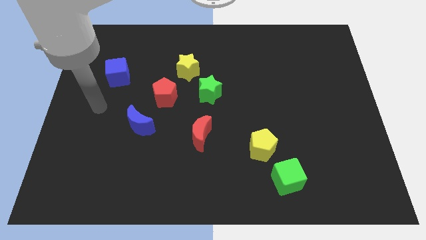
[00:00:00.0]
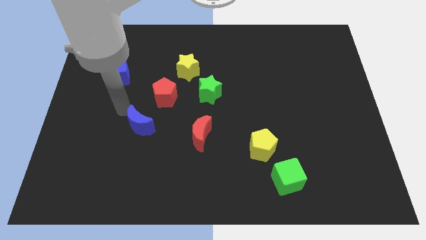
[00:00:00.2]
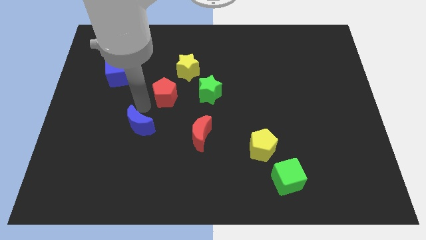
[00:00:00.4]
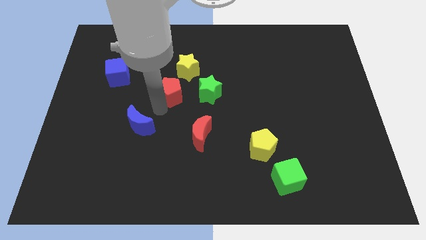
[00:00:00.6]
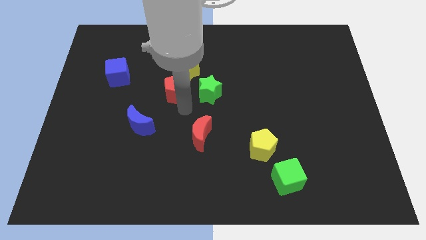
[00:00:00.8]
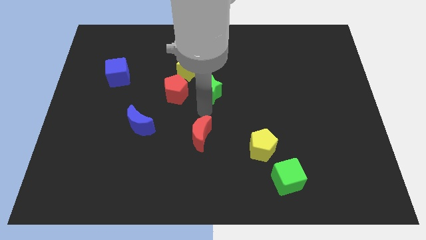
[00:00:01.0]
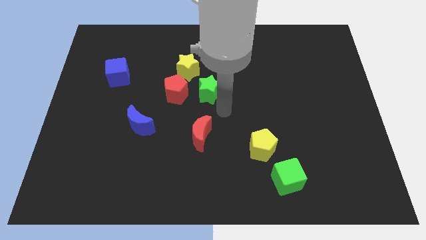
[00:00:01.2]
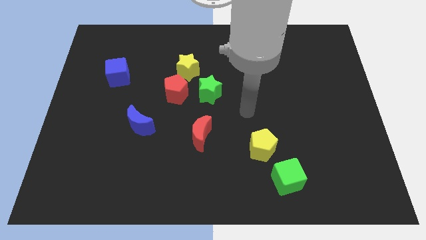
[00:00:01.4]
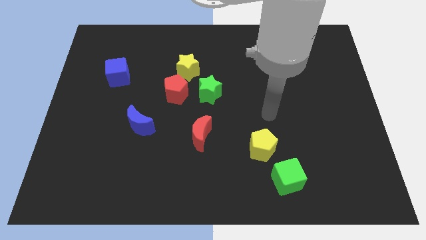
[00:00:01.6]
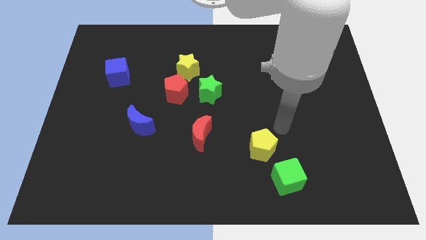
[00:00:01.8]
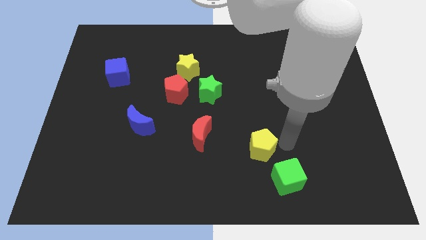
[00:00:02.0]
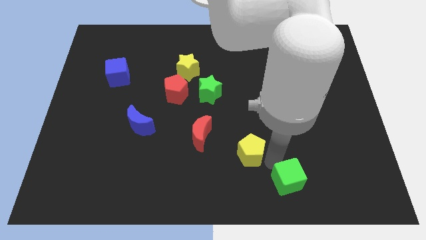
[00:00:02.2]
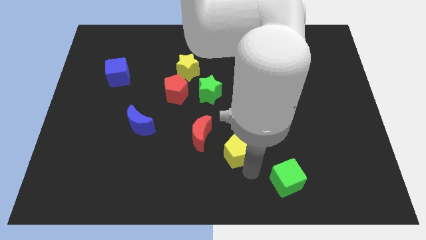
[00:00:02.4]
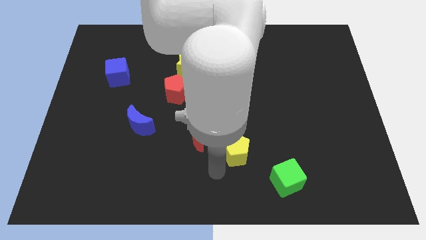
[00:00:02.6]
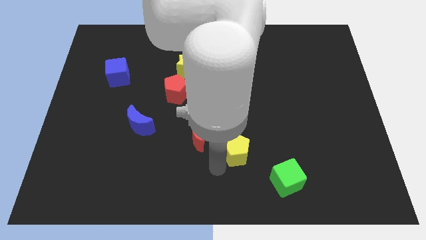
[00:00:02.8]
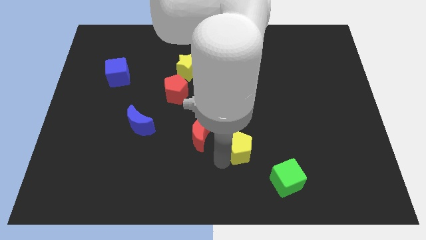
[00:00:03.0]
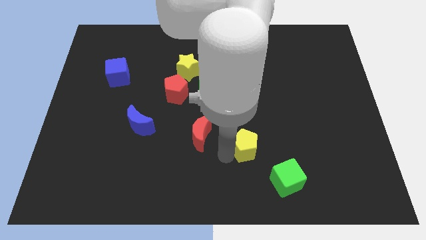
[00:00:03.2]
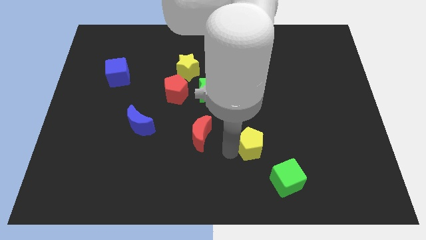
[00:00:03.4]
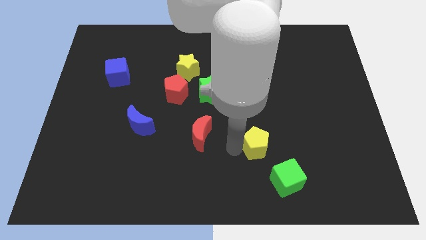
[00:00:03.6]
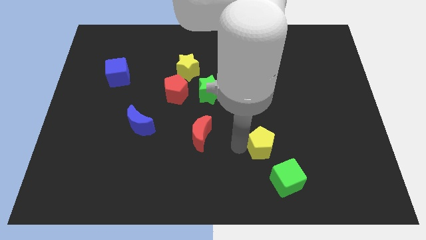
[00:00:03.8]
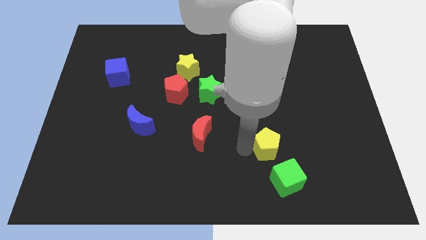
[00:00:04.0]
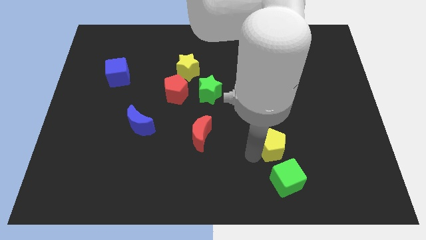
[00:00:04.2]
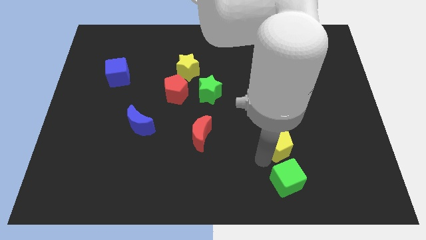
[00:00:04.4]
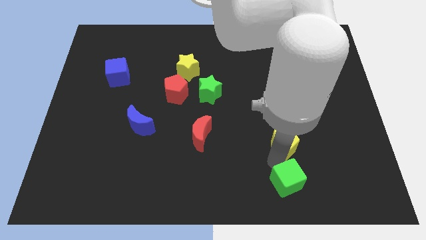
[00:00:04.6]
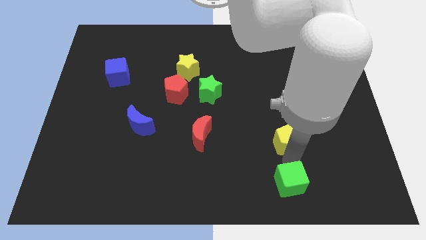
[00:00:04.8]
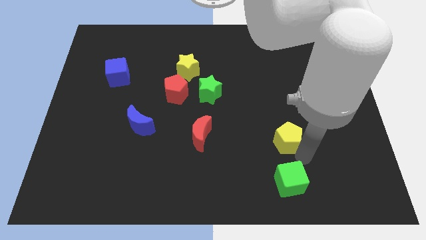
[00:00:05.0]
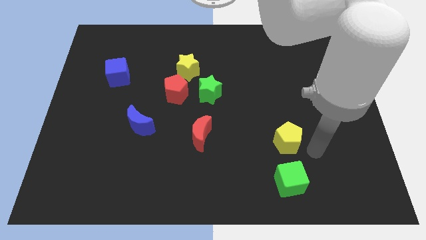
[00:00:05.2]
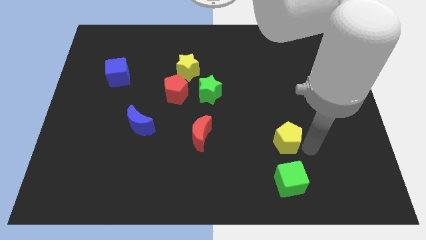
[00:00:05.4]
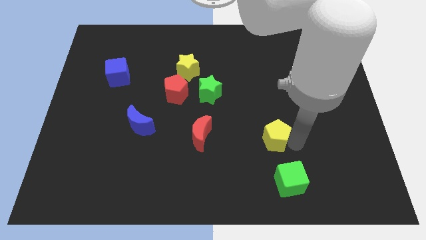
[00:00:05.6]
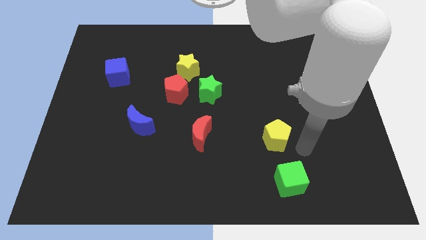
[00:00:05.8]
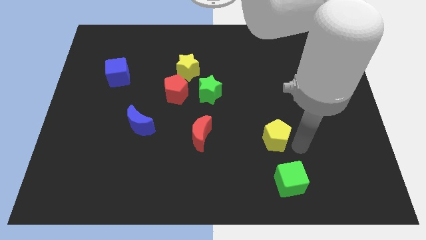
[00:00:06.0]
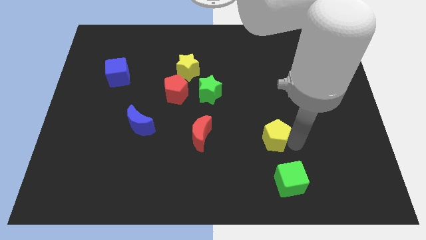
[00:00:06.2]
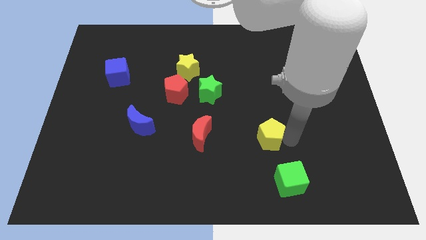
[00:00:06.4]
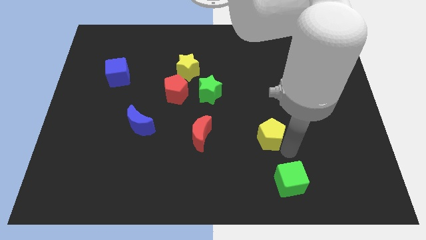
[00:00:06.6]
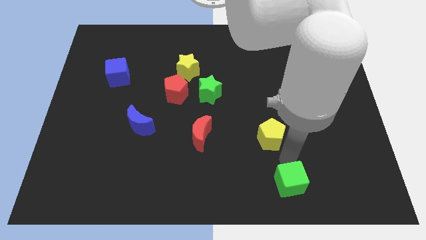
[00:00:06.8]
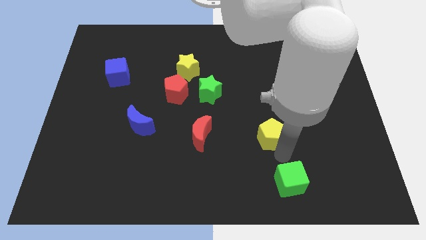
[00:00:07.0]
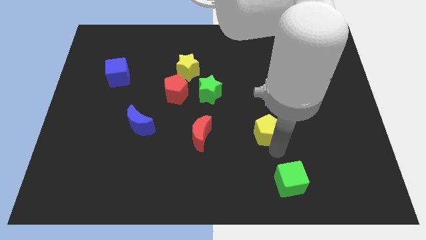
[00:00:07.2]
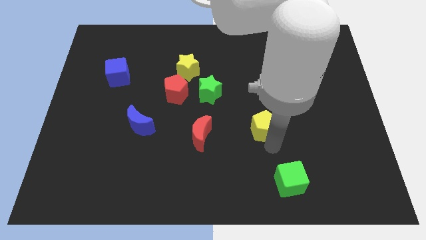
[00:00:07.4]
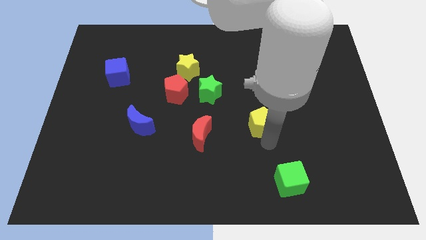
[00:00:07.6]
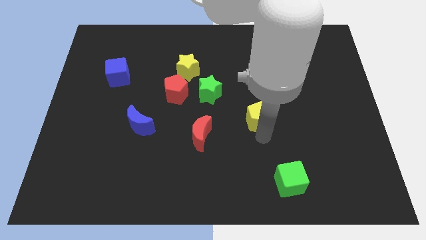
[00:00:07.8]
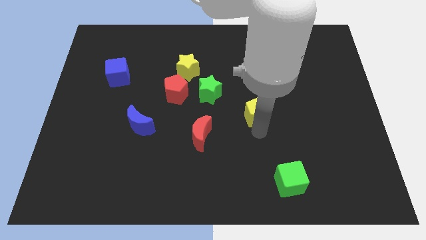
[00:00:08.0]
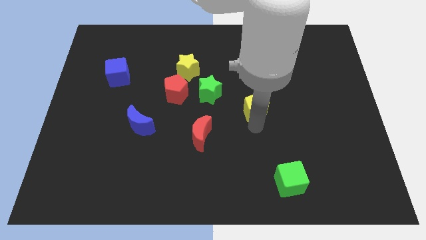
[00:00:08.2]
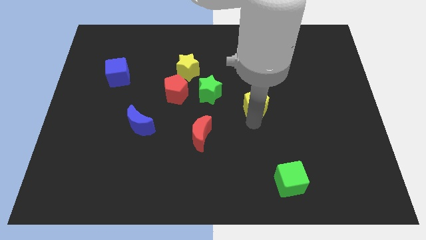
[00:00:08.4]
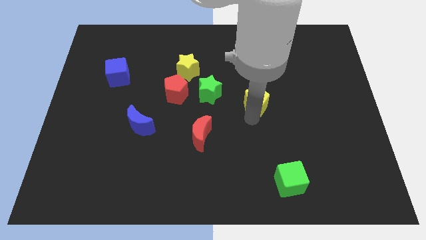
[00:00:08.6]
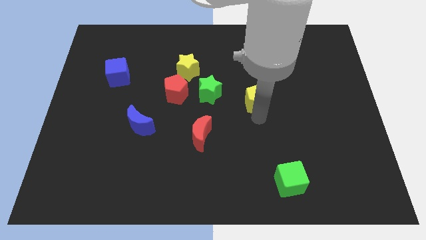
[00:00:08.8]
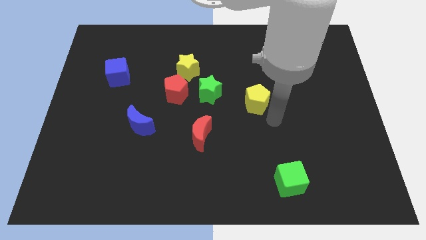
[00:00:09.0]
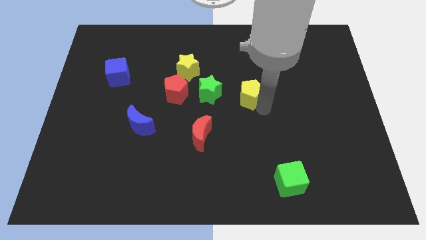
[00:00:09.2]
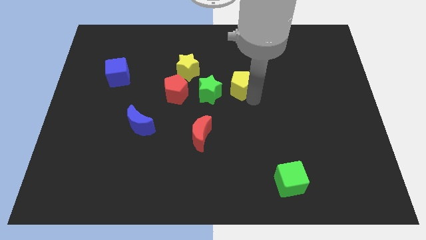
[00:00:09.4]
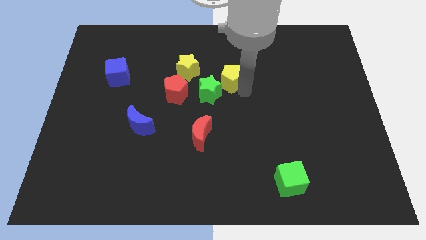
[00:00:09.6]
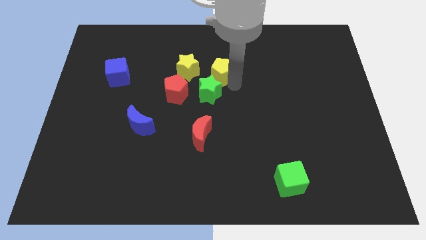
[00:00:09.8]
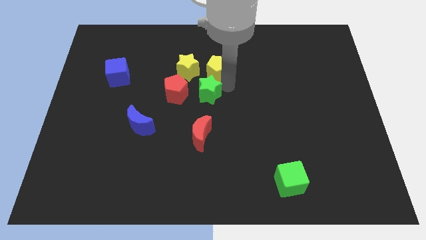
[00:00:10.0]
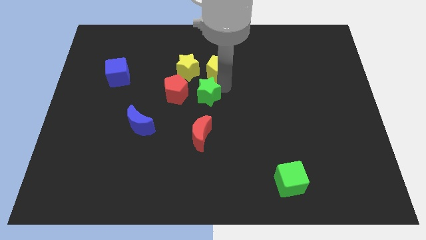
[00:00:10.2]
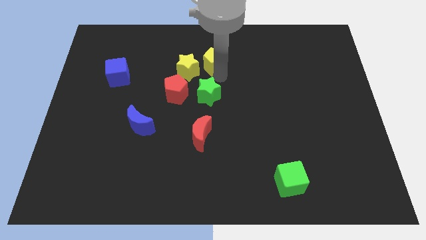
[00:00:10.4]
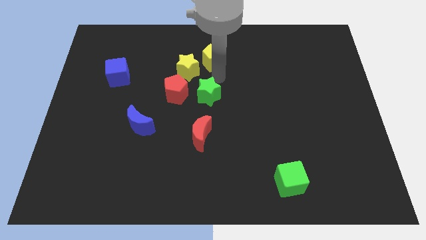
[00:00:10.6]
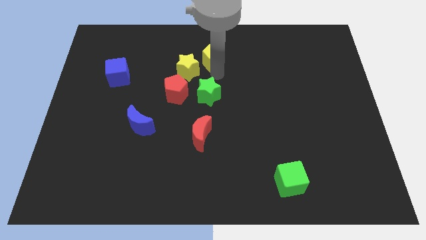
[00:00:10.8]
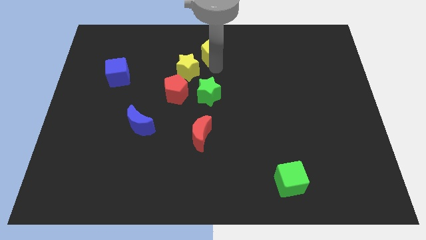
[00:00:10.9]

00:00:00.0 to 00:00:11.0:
push the yellow pentagon to the towards your base

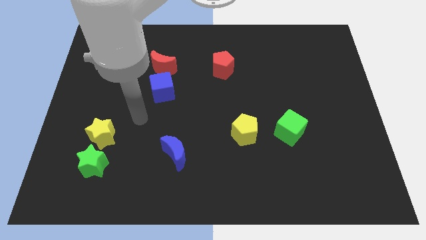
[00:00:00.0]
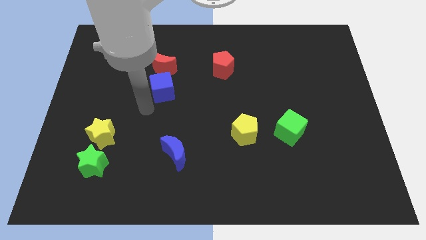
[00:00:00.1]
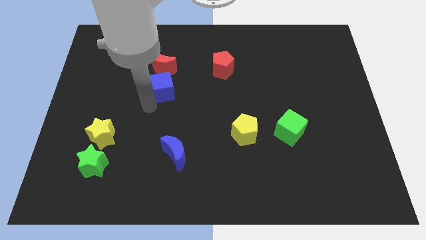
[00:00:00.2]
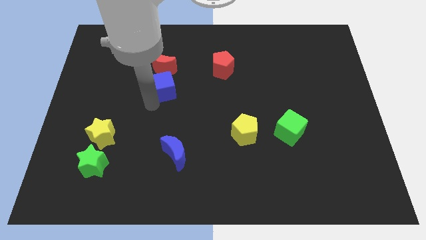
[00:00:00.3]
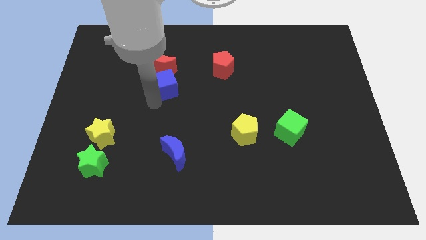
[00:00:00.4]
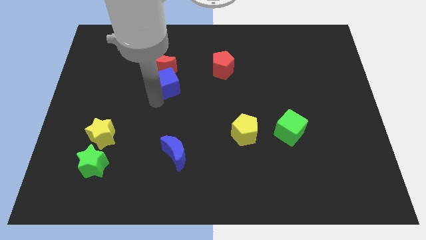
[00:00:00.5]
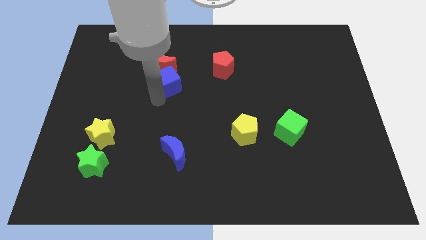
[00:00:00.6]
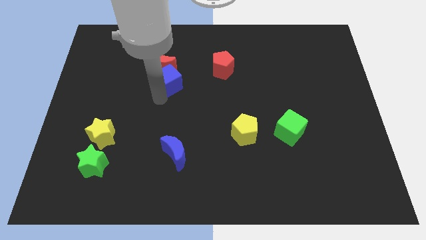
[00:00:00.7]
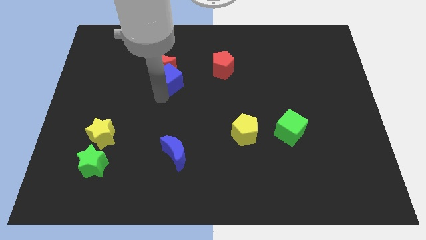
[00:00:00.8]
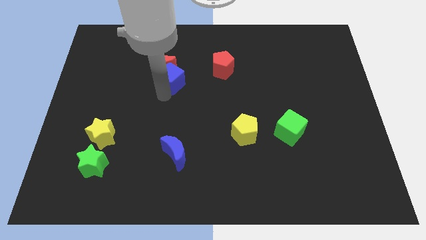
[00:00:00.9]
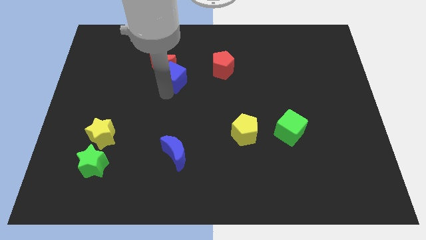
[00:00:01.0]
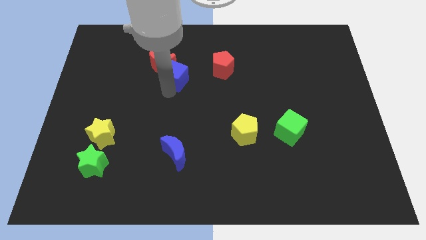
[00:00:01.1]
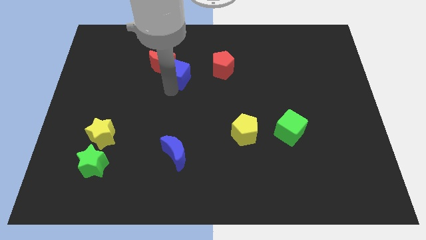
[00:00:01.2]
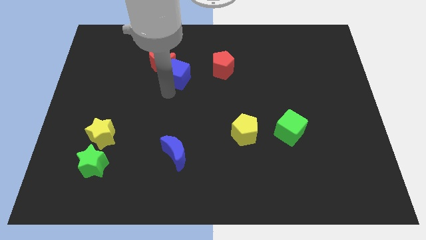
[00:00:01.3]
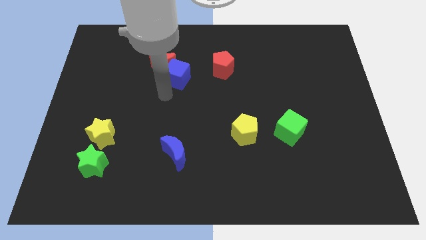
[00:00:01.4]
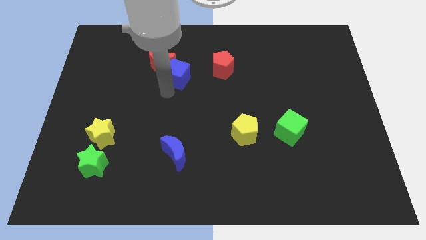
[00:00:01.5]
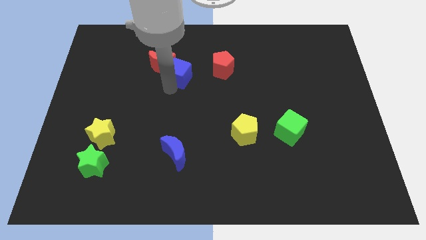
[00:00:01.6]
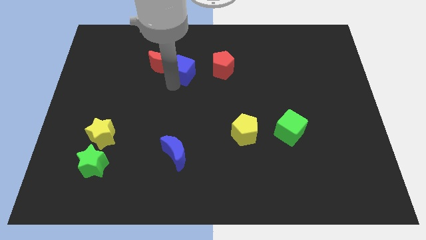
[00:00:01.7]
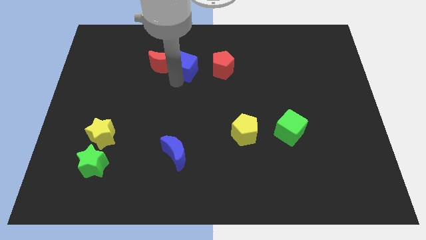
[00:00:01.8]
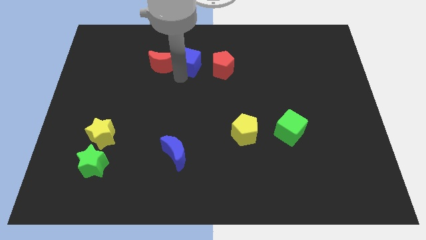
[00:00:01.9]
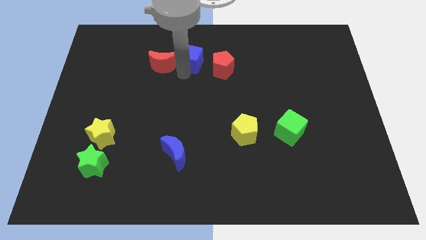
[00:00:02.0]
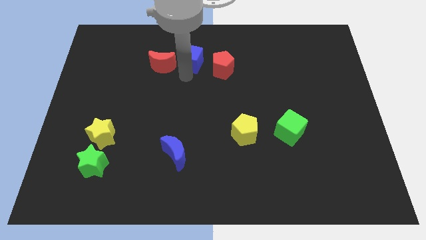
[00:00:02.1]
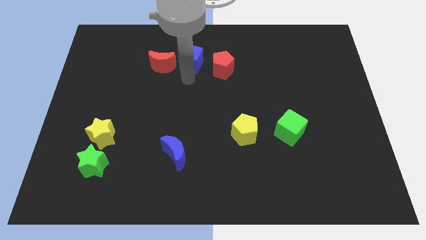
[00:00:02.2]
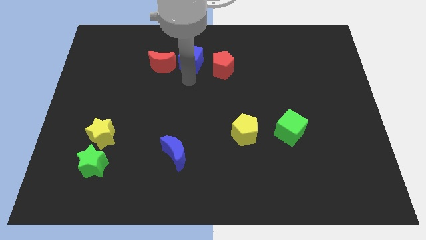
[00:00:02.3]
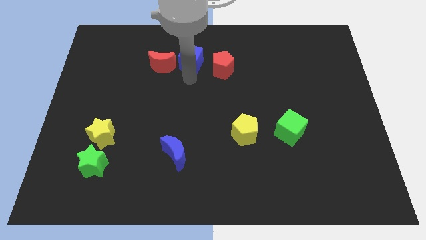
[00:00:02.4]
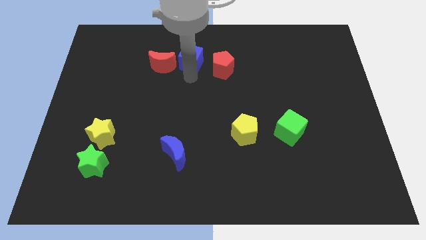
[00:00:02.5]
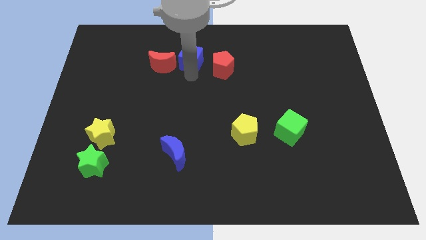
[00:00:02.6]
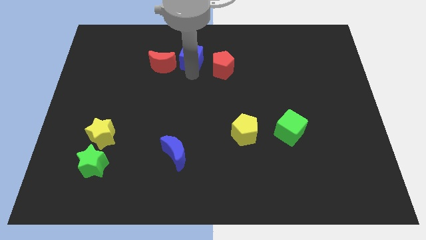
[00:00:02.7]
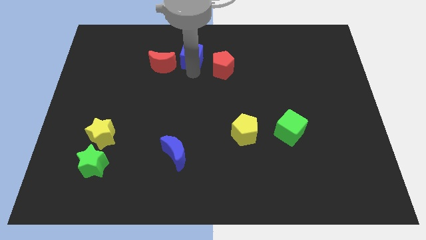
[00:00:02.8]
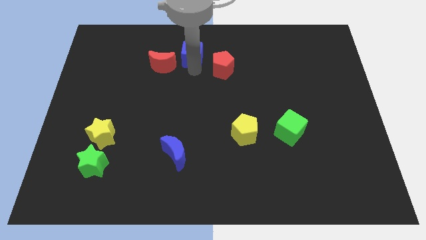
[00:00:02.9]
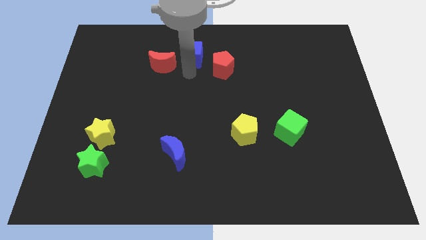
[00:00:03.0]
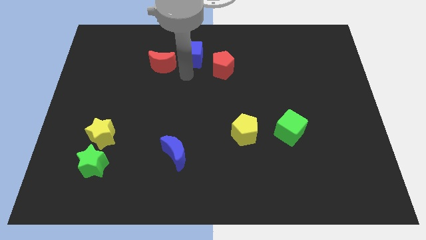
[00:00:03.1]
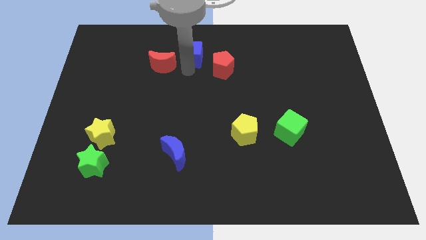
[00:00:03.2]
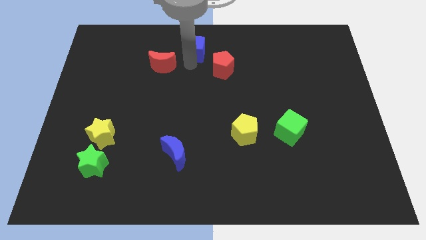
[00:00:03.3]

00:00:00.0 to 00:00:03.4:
move the blue cube to the top side
